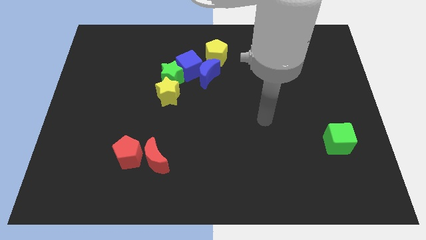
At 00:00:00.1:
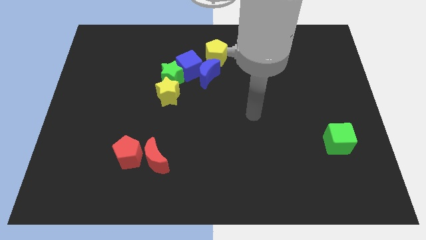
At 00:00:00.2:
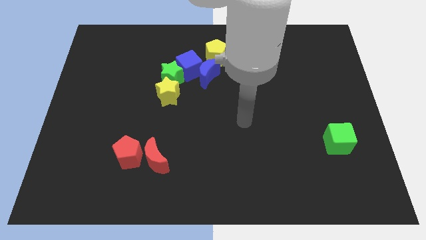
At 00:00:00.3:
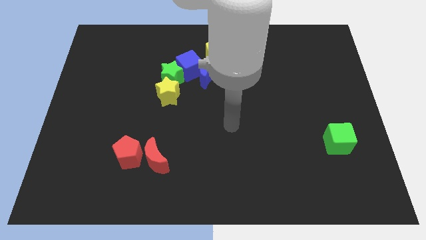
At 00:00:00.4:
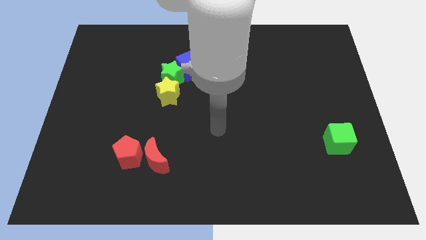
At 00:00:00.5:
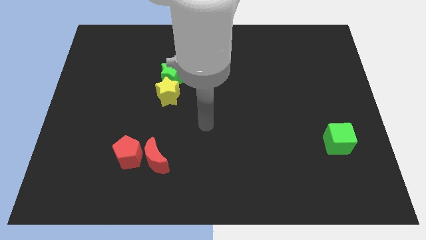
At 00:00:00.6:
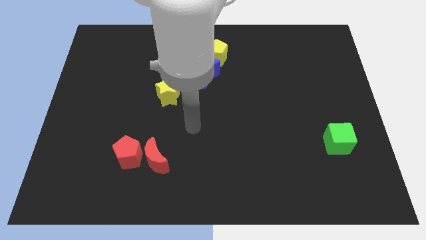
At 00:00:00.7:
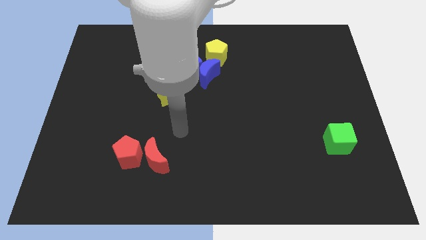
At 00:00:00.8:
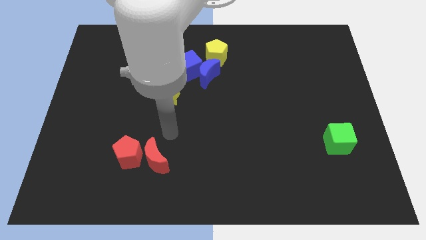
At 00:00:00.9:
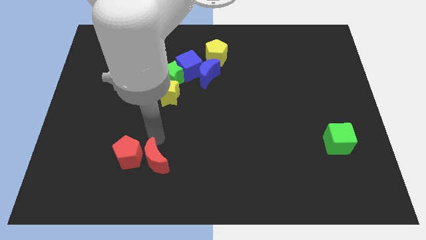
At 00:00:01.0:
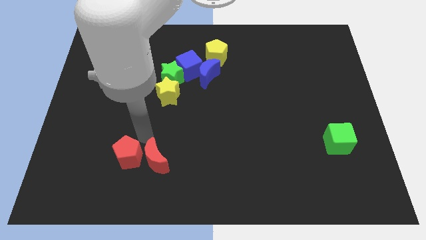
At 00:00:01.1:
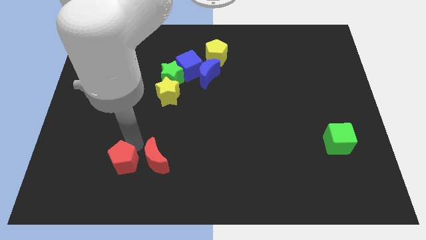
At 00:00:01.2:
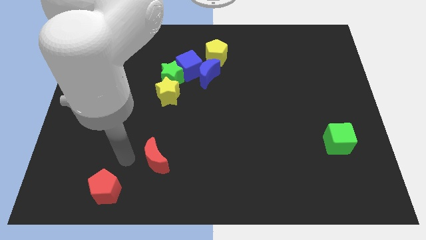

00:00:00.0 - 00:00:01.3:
move the red moon away from the red pentagon

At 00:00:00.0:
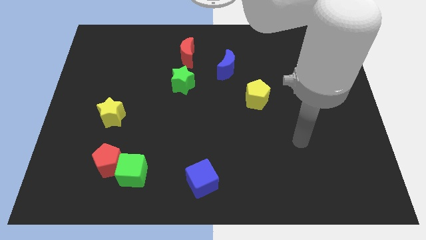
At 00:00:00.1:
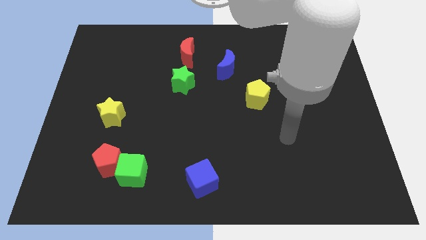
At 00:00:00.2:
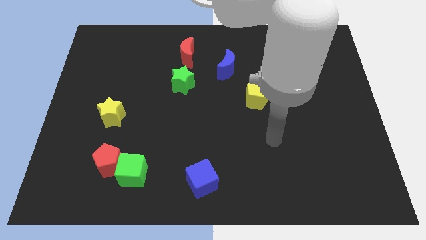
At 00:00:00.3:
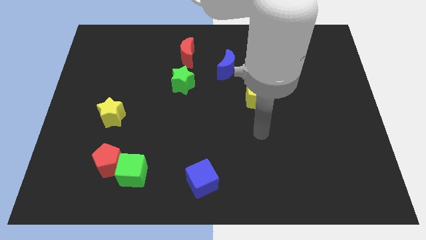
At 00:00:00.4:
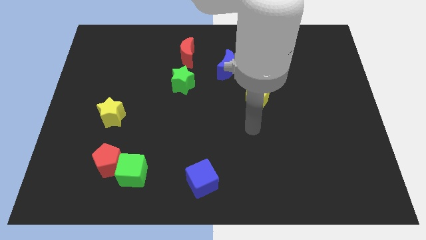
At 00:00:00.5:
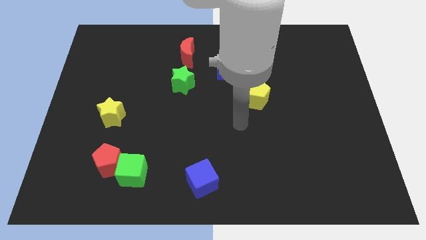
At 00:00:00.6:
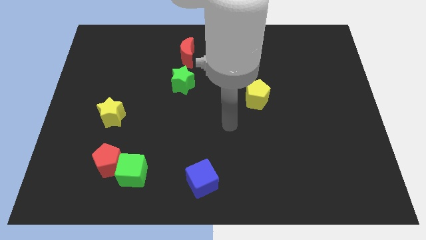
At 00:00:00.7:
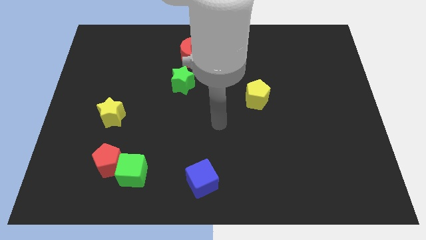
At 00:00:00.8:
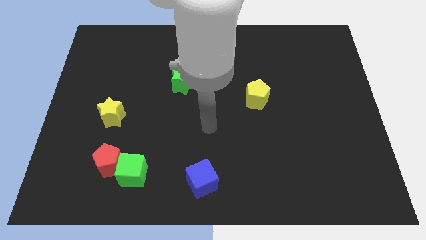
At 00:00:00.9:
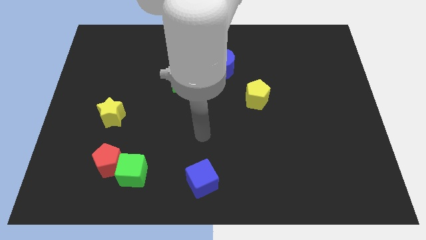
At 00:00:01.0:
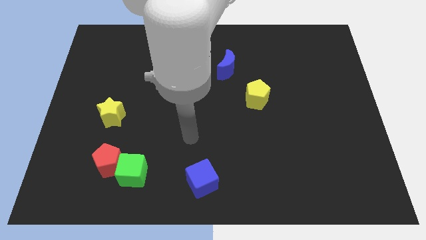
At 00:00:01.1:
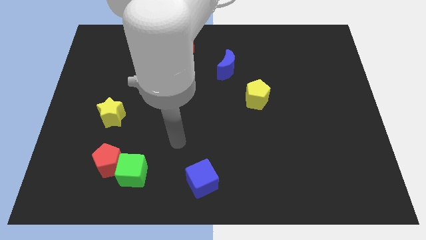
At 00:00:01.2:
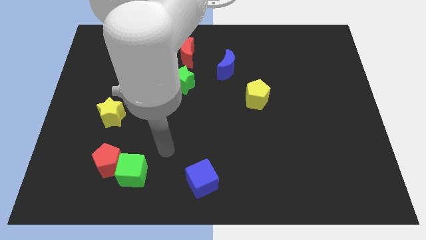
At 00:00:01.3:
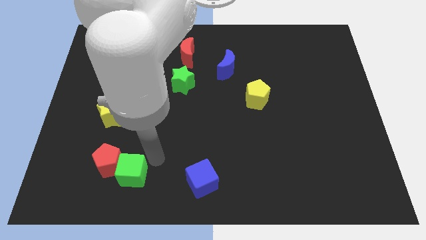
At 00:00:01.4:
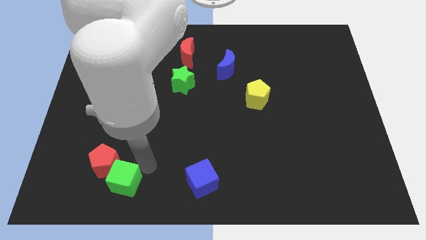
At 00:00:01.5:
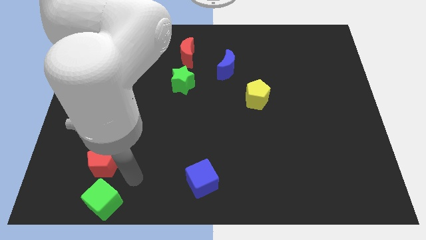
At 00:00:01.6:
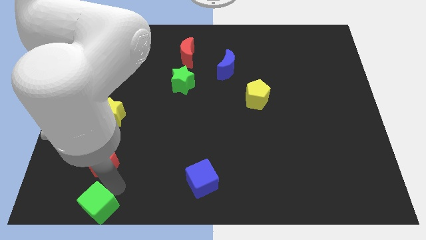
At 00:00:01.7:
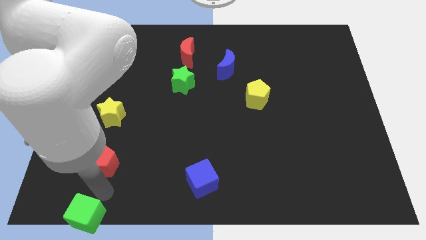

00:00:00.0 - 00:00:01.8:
pull the red pentagon apart from the green cube

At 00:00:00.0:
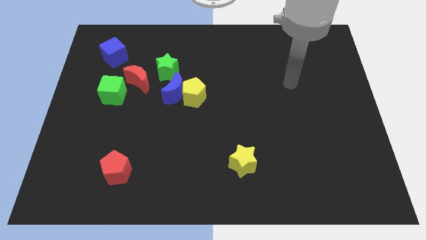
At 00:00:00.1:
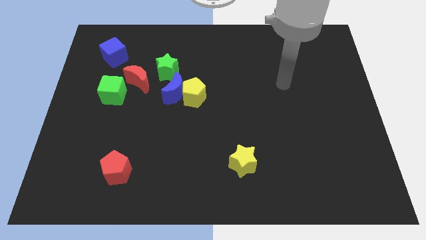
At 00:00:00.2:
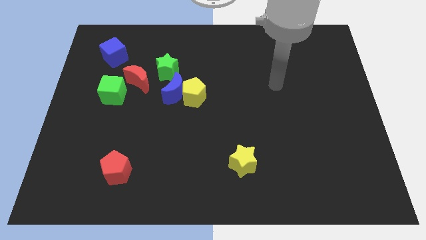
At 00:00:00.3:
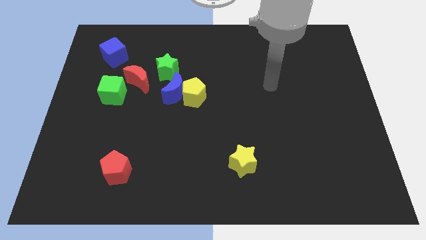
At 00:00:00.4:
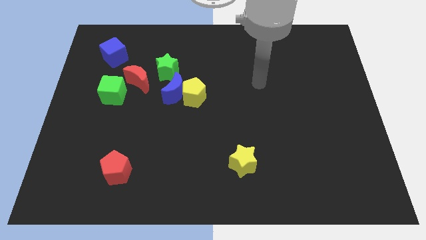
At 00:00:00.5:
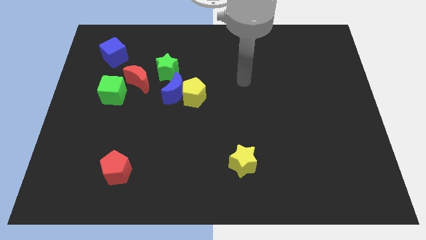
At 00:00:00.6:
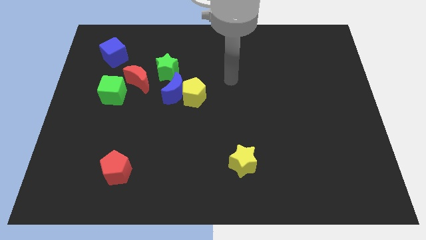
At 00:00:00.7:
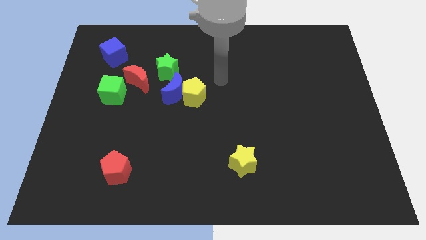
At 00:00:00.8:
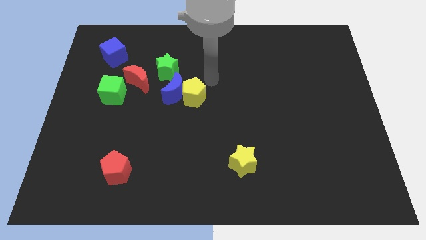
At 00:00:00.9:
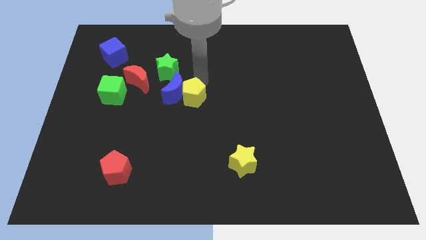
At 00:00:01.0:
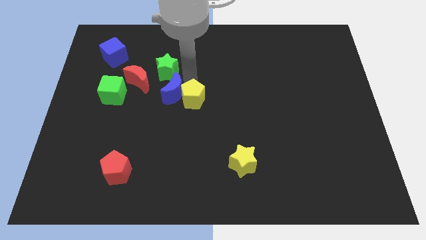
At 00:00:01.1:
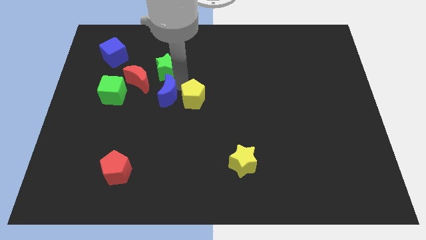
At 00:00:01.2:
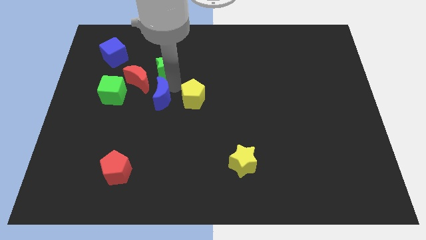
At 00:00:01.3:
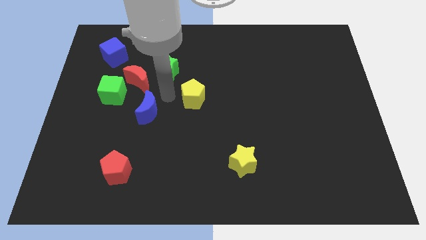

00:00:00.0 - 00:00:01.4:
move the yellow pentagon away from the blue moon

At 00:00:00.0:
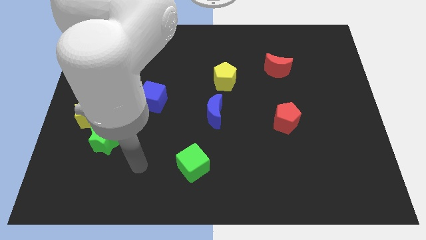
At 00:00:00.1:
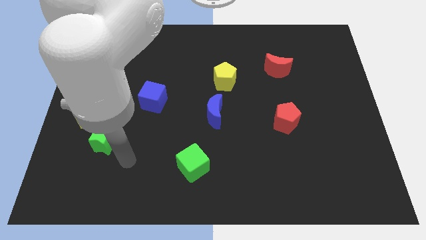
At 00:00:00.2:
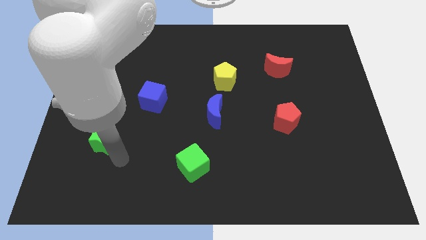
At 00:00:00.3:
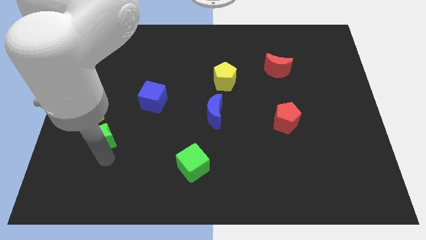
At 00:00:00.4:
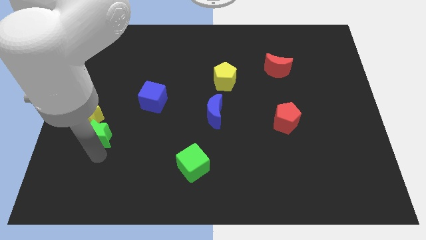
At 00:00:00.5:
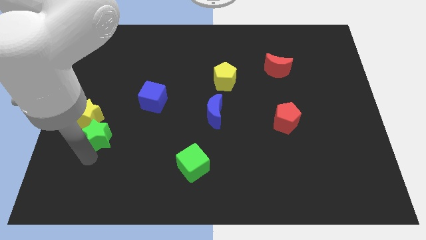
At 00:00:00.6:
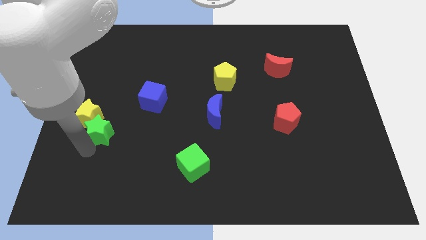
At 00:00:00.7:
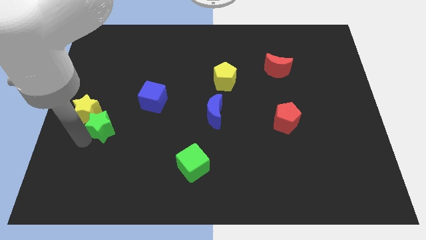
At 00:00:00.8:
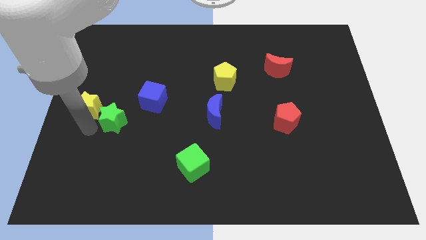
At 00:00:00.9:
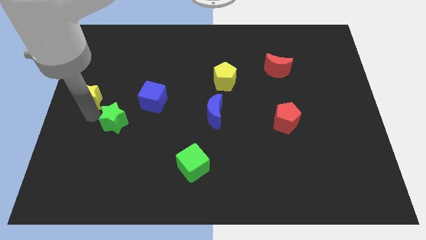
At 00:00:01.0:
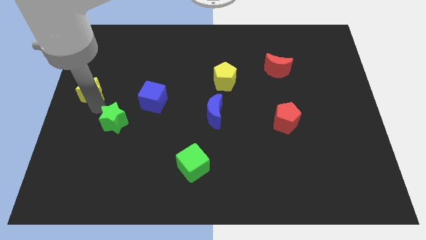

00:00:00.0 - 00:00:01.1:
move the green star away from the yellow star

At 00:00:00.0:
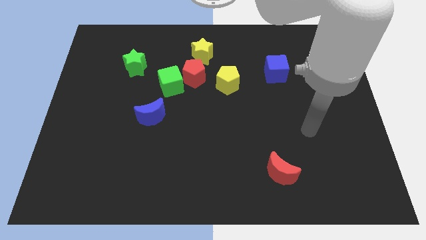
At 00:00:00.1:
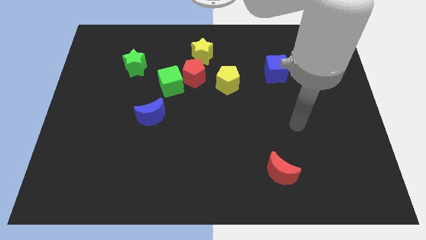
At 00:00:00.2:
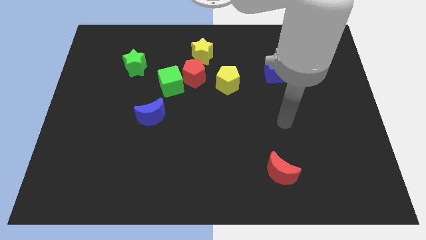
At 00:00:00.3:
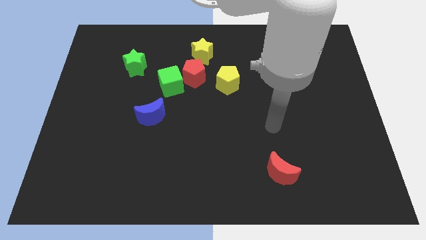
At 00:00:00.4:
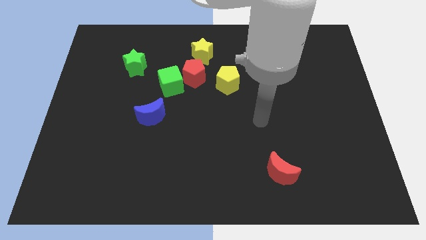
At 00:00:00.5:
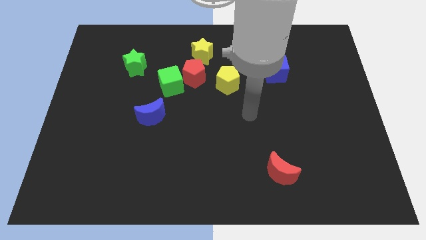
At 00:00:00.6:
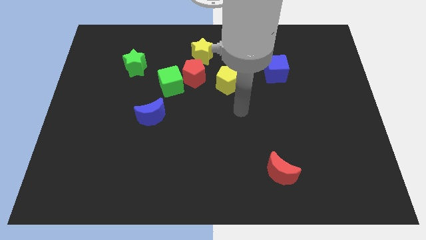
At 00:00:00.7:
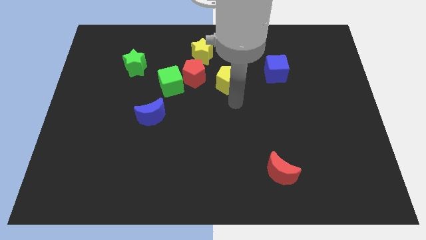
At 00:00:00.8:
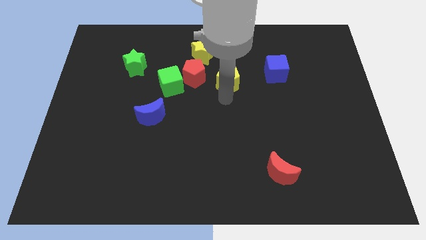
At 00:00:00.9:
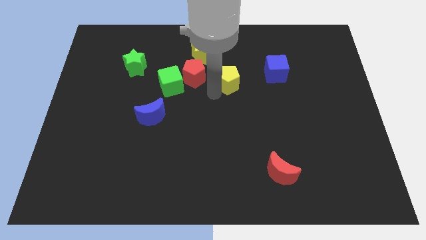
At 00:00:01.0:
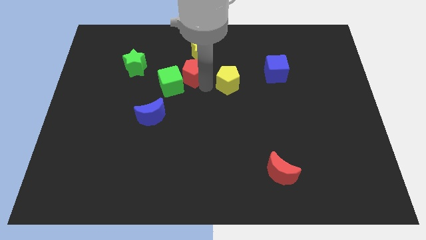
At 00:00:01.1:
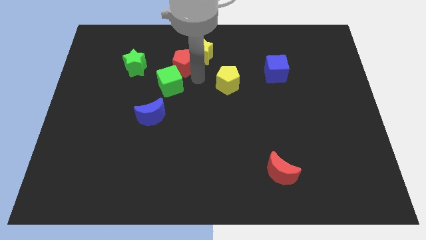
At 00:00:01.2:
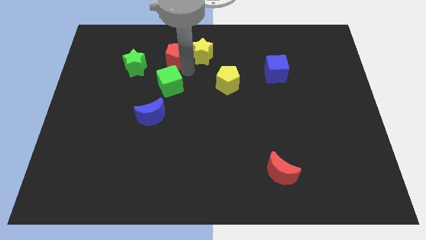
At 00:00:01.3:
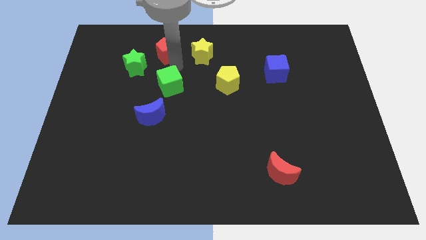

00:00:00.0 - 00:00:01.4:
move the green cube away from the red pentagon

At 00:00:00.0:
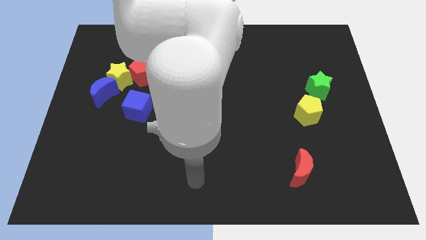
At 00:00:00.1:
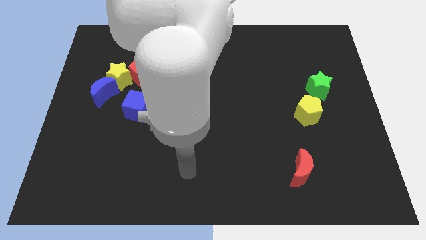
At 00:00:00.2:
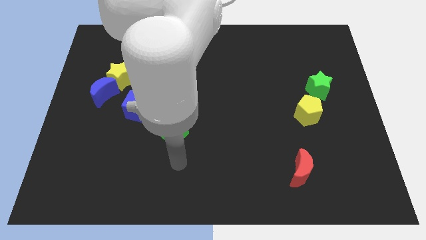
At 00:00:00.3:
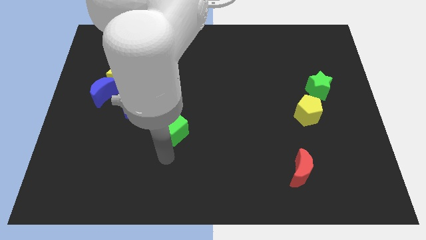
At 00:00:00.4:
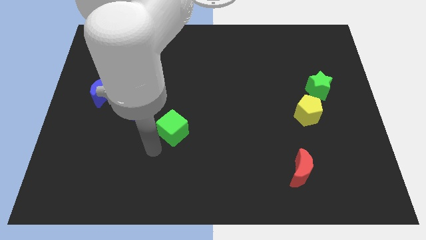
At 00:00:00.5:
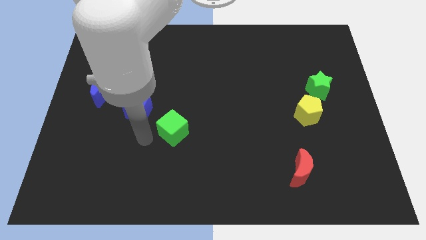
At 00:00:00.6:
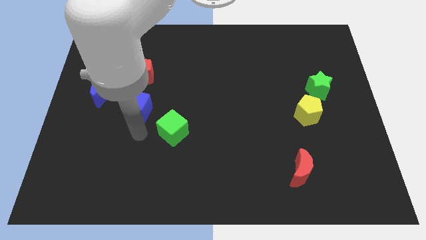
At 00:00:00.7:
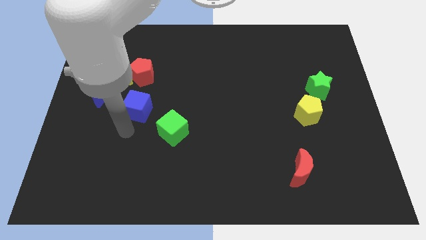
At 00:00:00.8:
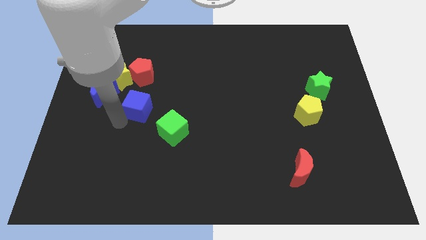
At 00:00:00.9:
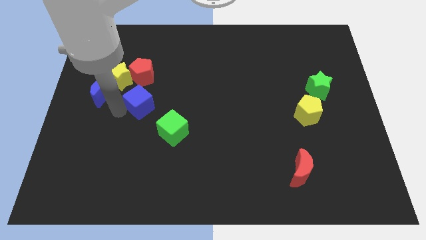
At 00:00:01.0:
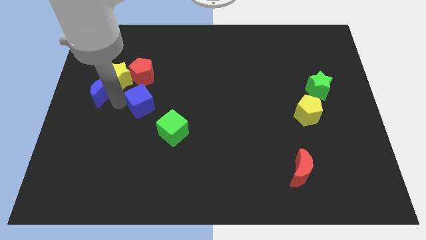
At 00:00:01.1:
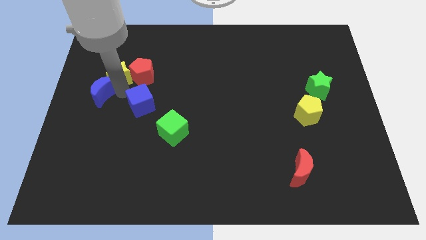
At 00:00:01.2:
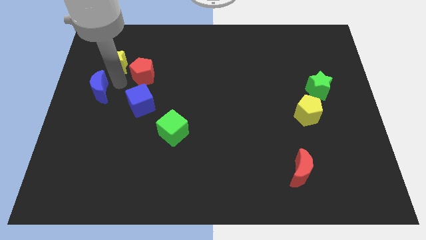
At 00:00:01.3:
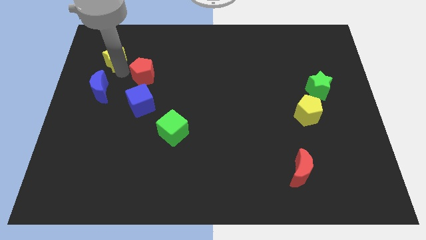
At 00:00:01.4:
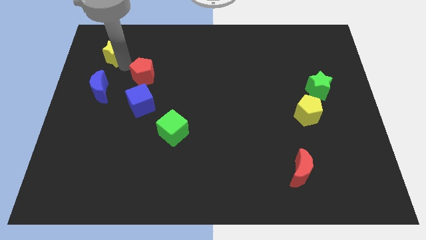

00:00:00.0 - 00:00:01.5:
separate the red pentagon from the yellow star

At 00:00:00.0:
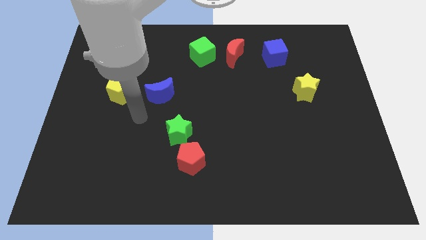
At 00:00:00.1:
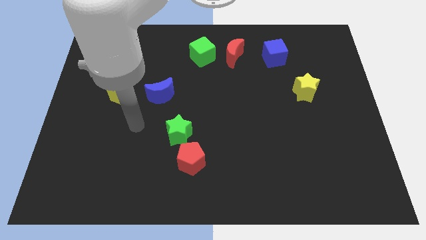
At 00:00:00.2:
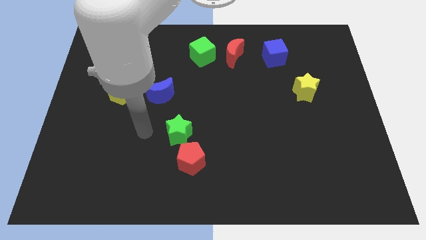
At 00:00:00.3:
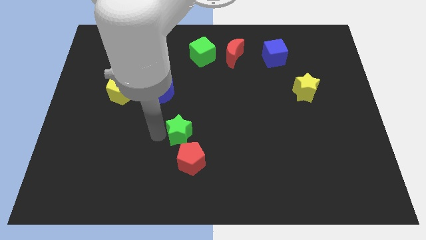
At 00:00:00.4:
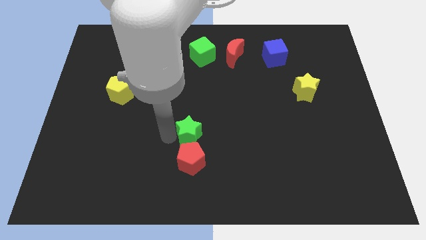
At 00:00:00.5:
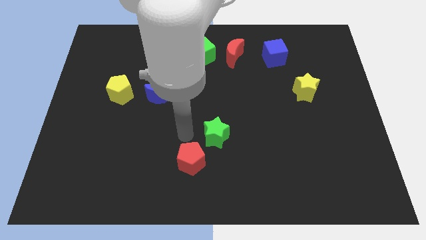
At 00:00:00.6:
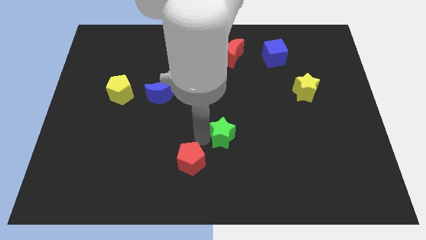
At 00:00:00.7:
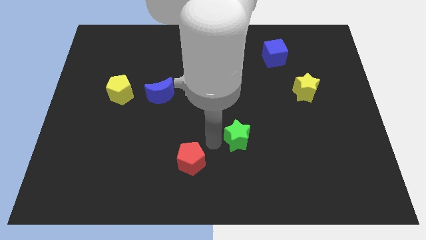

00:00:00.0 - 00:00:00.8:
separate the red pentagon from the green star

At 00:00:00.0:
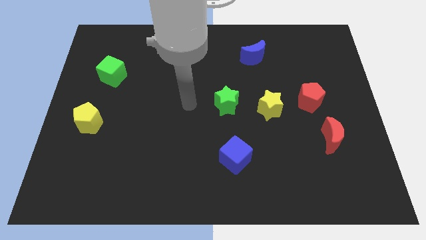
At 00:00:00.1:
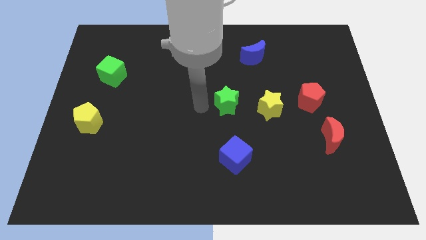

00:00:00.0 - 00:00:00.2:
separate the green star from the yellow star
